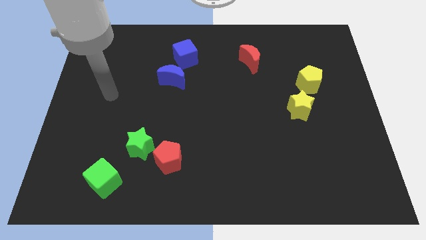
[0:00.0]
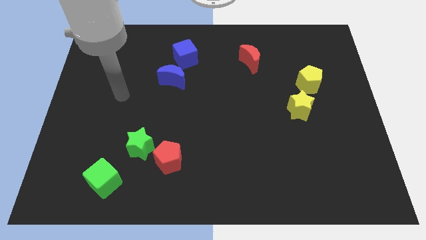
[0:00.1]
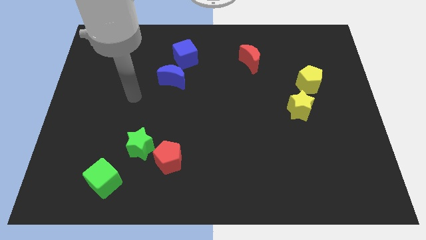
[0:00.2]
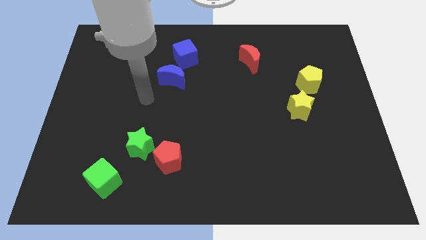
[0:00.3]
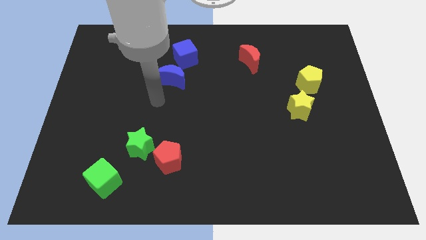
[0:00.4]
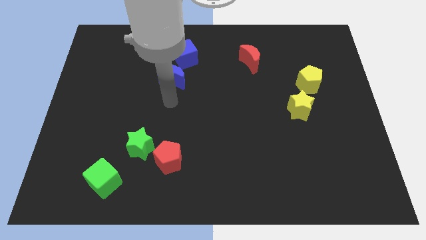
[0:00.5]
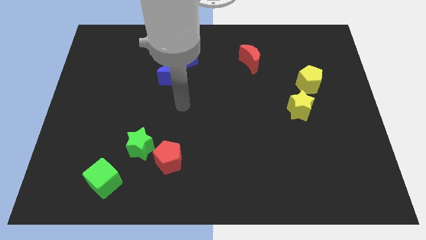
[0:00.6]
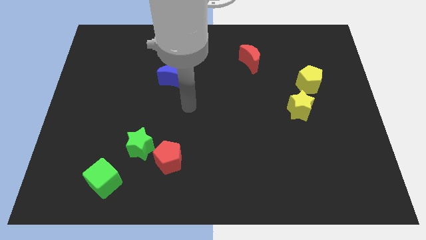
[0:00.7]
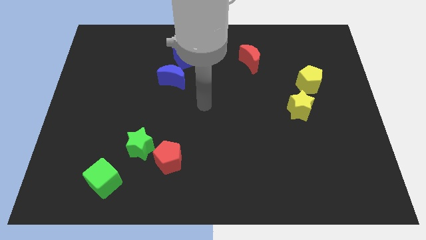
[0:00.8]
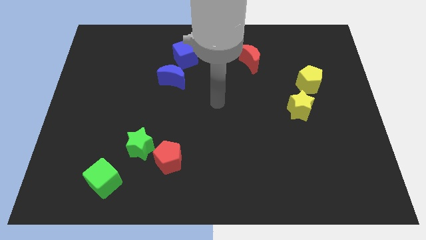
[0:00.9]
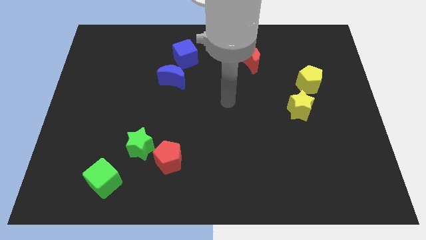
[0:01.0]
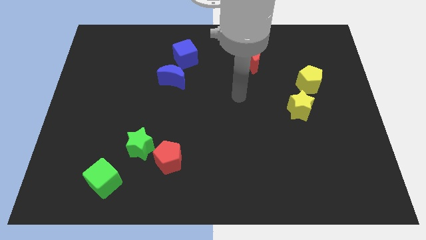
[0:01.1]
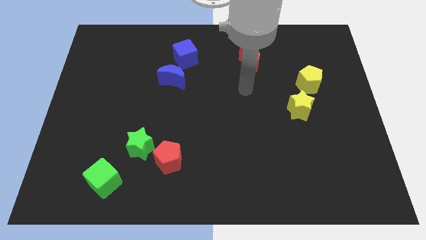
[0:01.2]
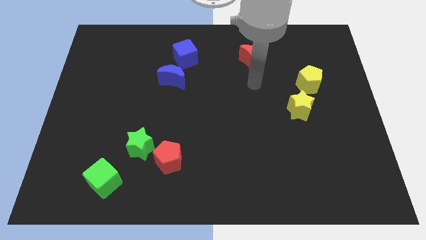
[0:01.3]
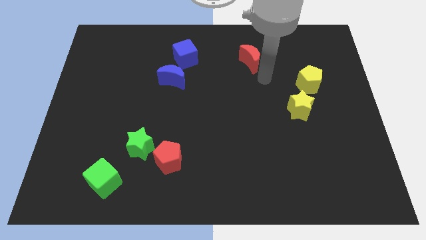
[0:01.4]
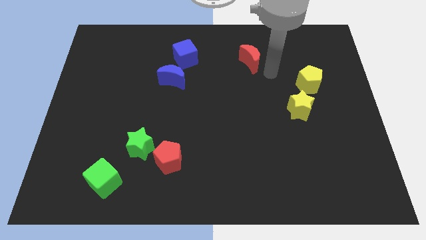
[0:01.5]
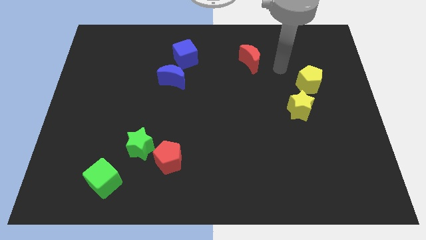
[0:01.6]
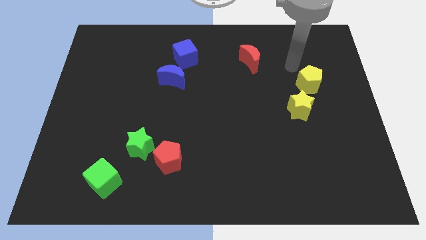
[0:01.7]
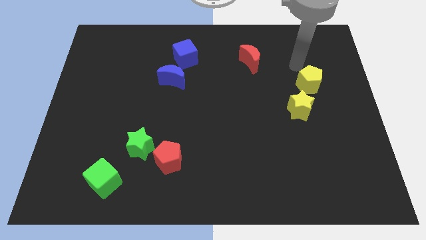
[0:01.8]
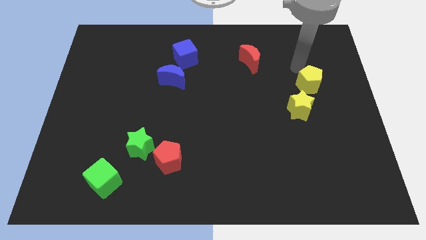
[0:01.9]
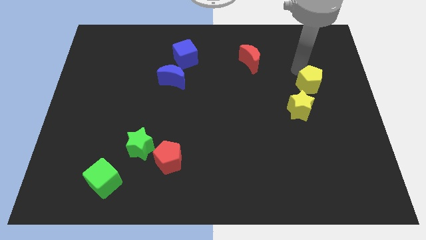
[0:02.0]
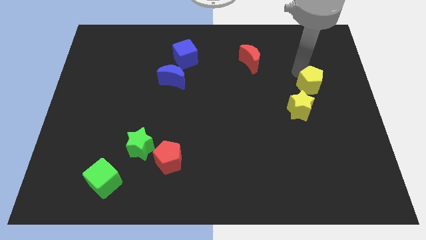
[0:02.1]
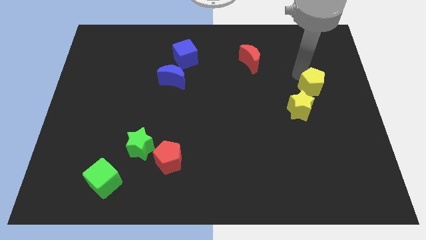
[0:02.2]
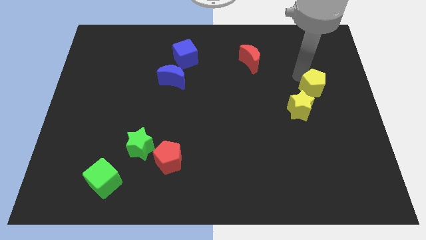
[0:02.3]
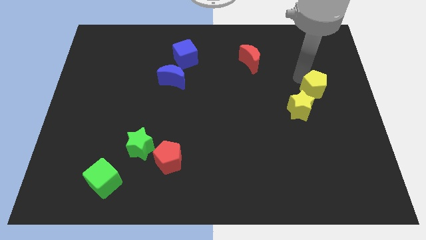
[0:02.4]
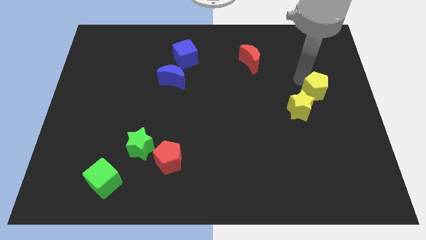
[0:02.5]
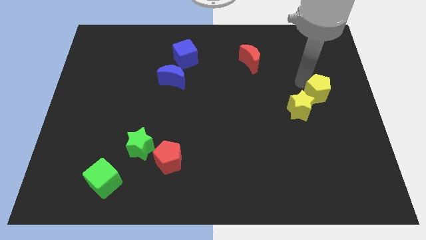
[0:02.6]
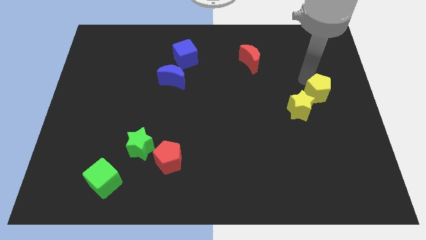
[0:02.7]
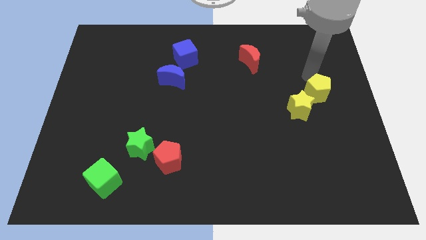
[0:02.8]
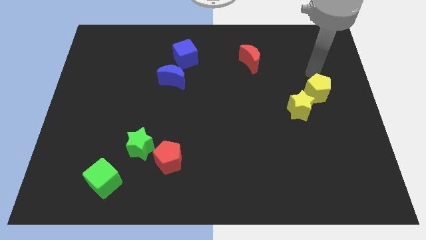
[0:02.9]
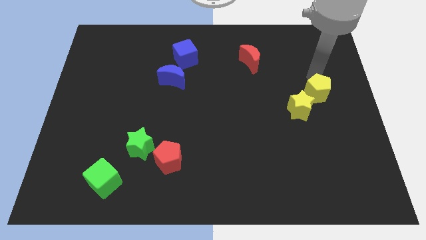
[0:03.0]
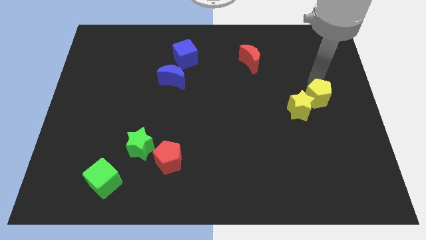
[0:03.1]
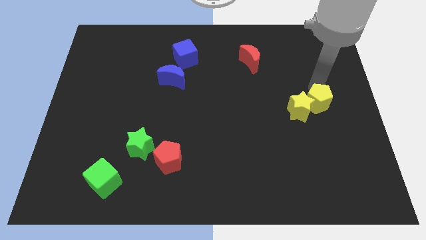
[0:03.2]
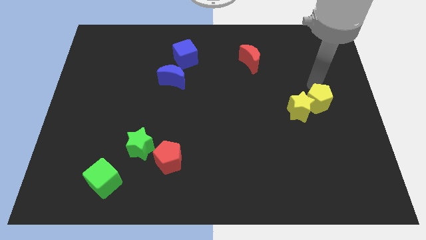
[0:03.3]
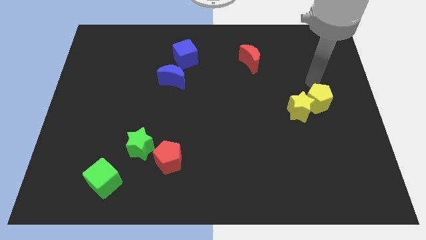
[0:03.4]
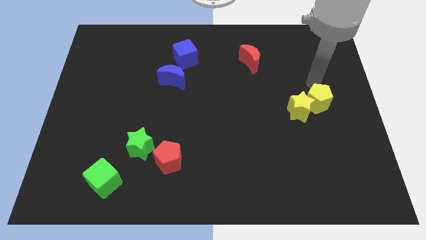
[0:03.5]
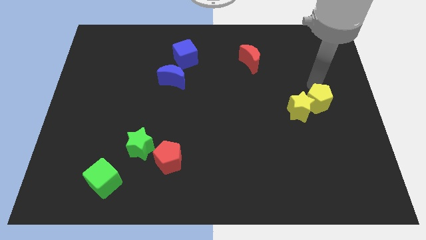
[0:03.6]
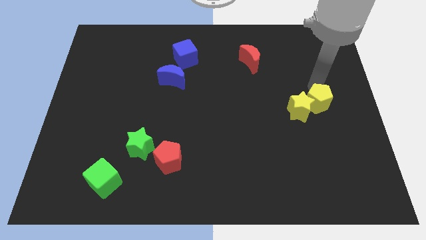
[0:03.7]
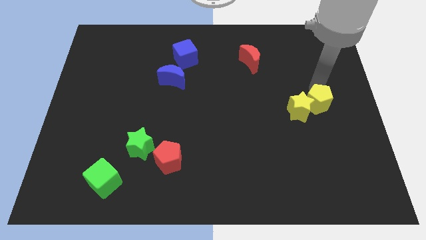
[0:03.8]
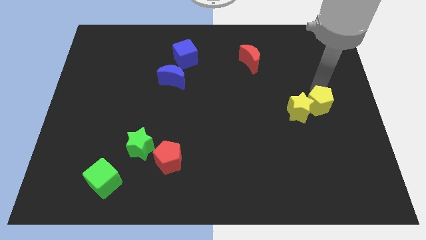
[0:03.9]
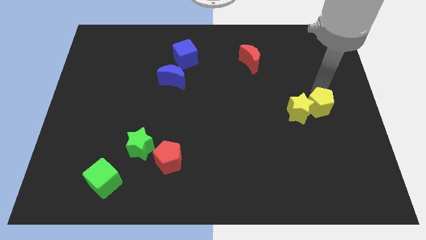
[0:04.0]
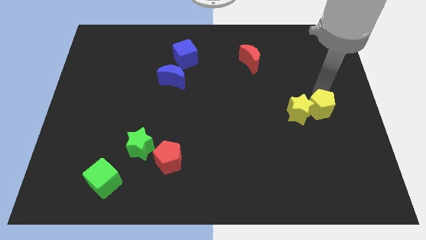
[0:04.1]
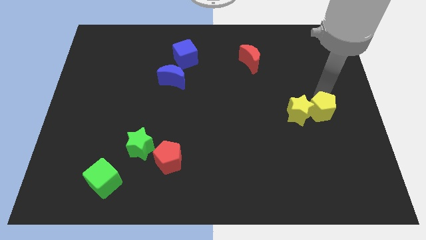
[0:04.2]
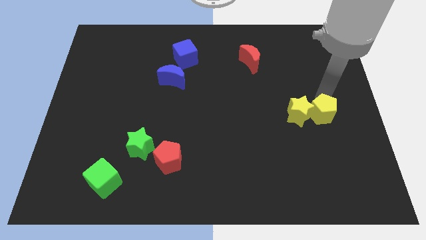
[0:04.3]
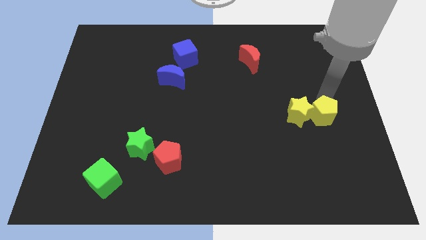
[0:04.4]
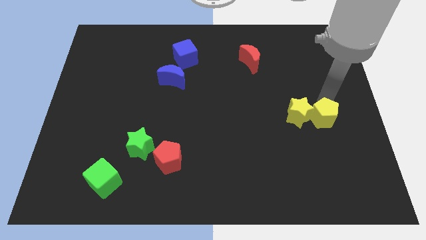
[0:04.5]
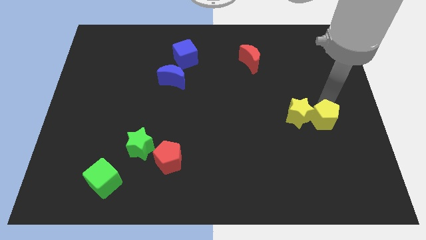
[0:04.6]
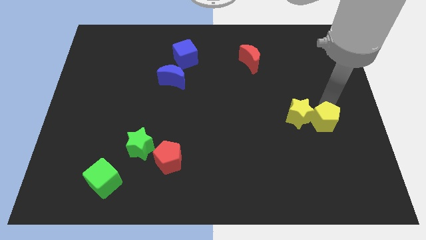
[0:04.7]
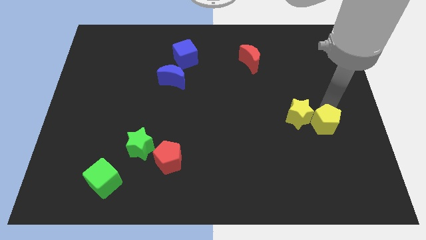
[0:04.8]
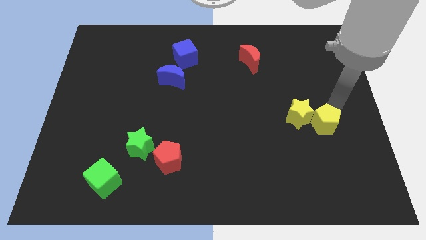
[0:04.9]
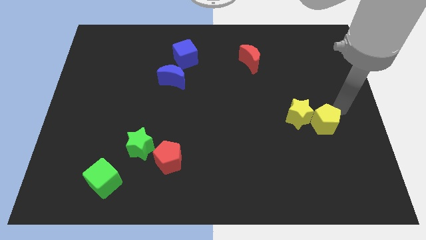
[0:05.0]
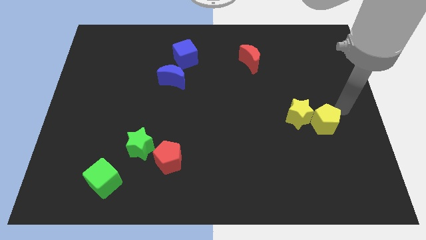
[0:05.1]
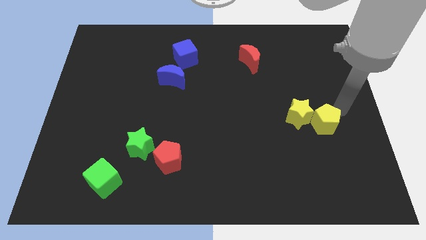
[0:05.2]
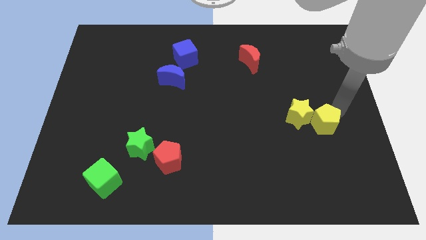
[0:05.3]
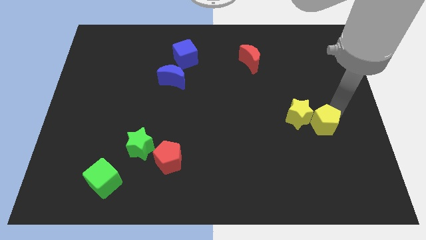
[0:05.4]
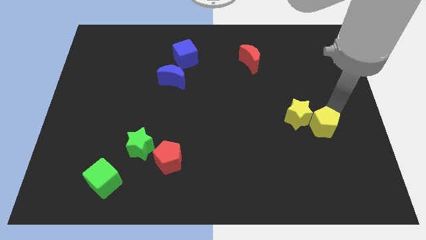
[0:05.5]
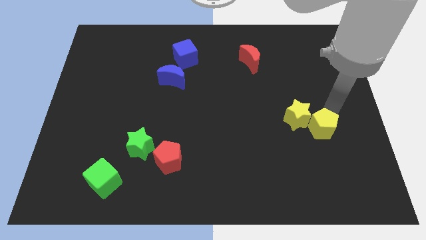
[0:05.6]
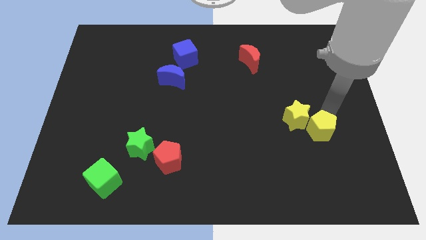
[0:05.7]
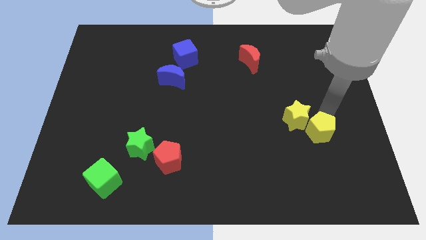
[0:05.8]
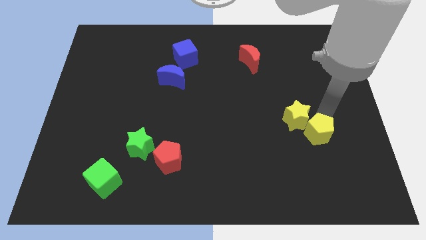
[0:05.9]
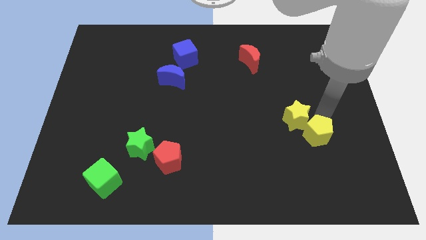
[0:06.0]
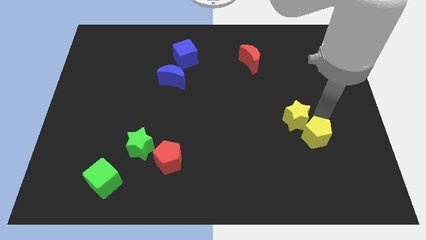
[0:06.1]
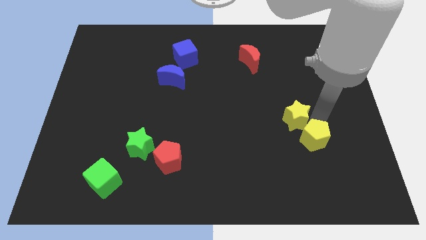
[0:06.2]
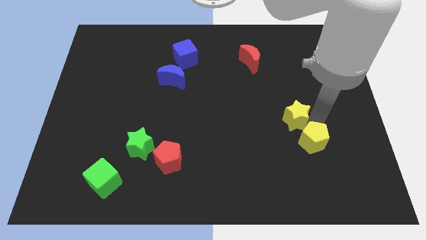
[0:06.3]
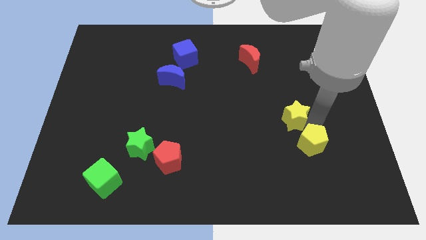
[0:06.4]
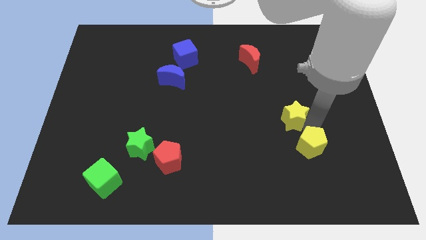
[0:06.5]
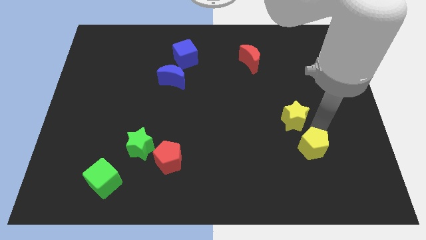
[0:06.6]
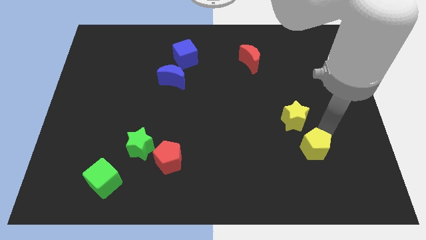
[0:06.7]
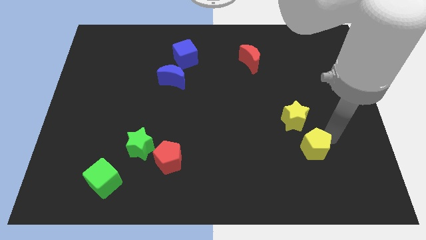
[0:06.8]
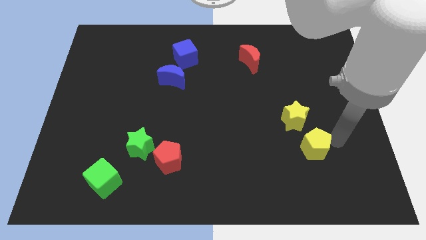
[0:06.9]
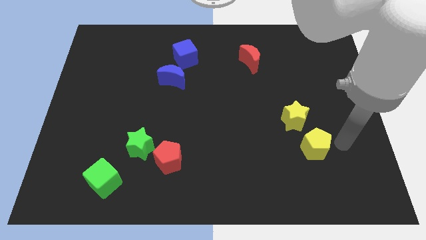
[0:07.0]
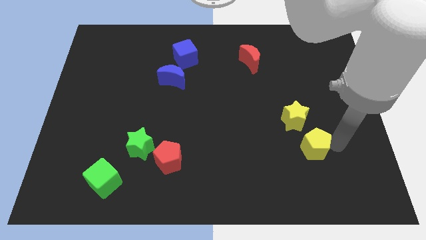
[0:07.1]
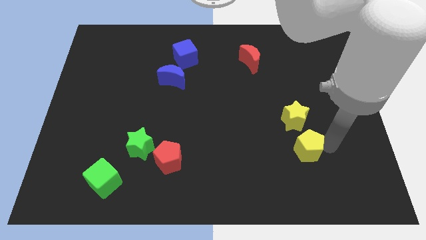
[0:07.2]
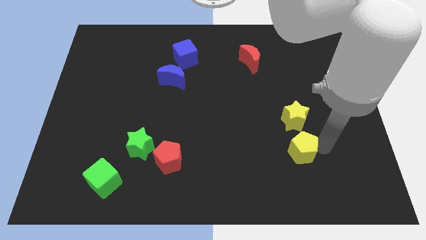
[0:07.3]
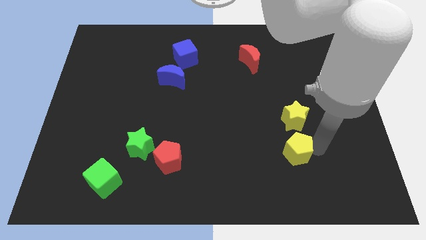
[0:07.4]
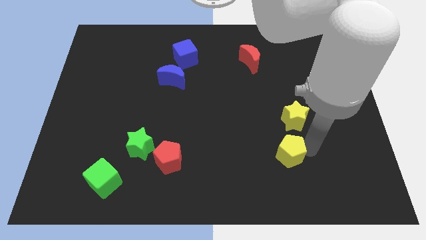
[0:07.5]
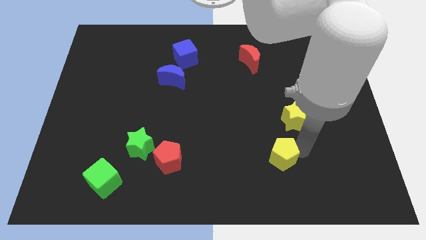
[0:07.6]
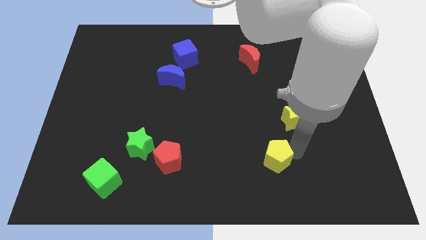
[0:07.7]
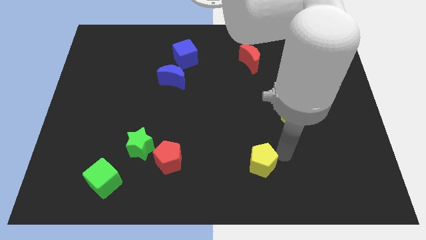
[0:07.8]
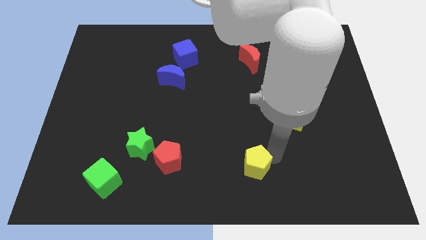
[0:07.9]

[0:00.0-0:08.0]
push the yellow pentagon to the bottom side
